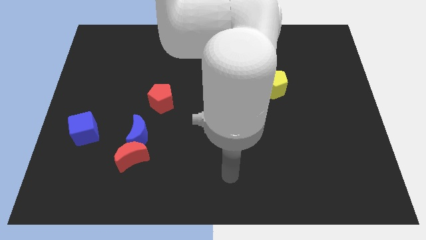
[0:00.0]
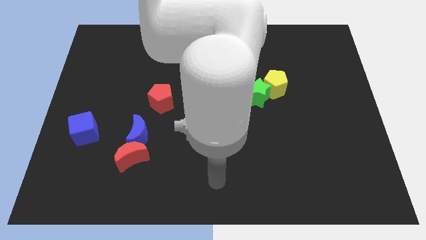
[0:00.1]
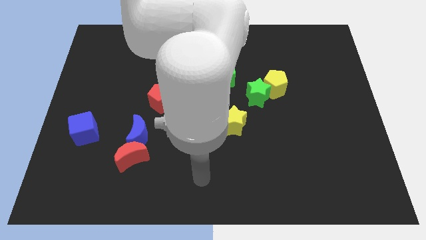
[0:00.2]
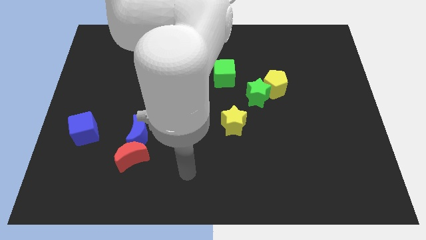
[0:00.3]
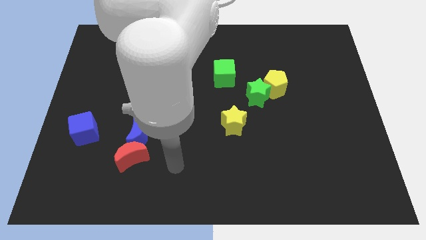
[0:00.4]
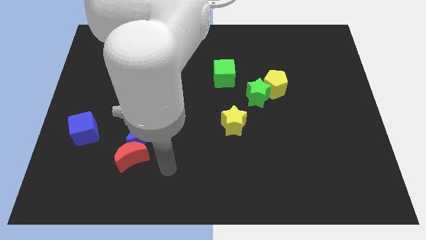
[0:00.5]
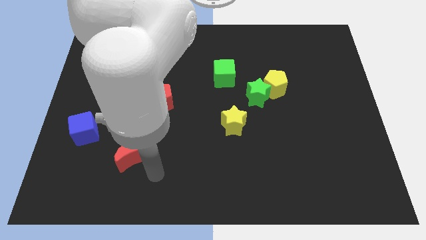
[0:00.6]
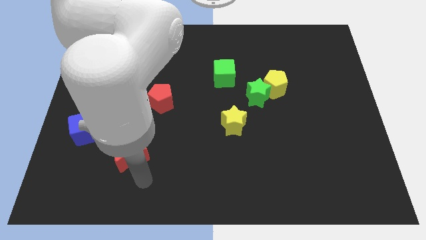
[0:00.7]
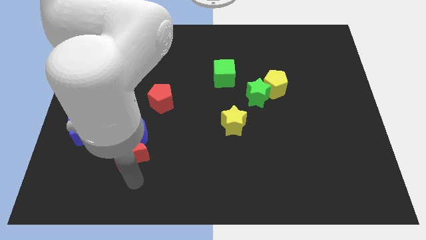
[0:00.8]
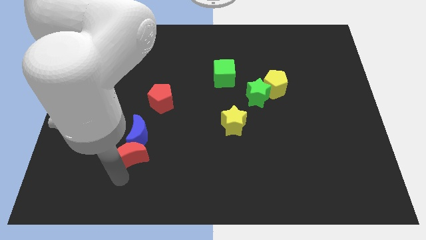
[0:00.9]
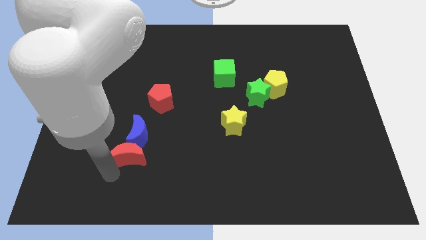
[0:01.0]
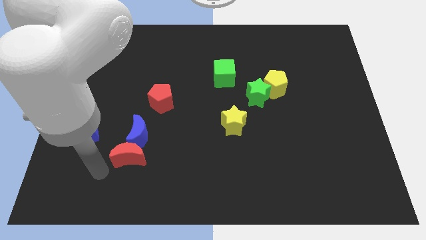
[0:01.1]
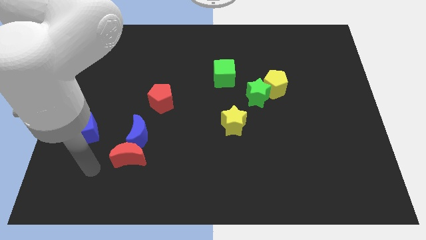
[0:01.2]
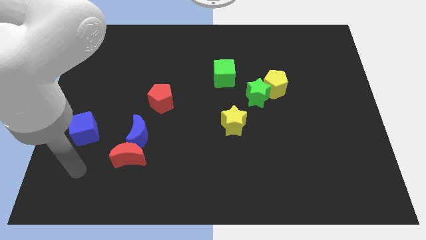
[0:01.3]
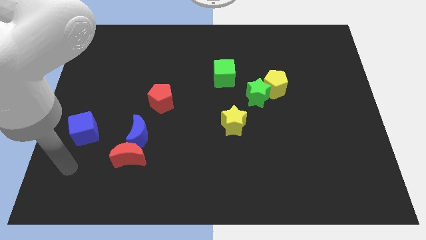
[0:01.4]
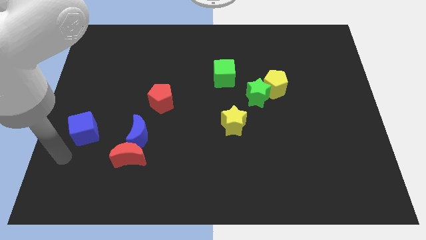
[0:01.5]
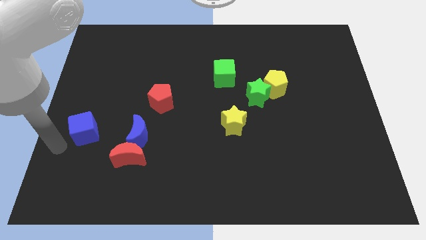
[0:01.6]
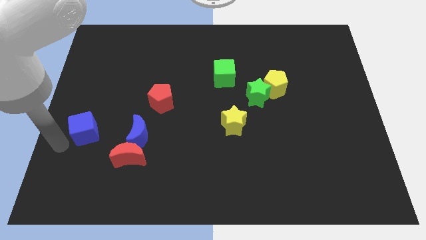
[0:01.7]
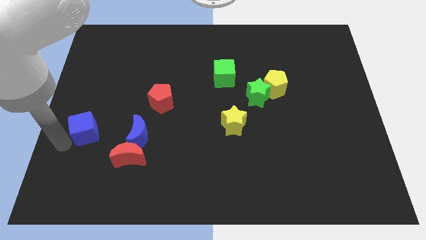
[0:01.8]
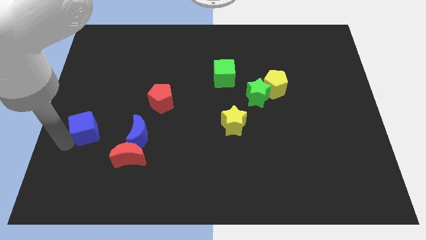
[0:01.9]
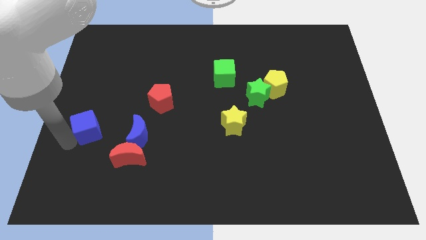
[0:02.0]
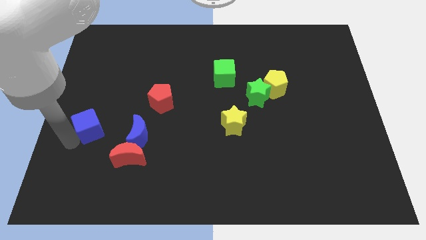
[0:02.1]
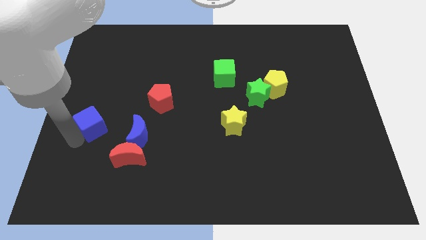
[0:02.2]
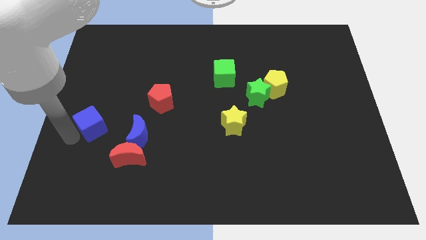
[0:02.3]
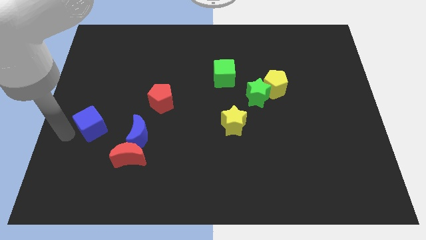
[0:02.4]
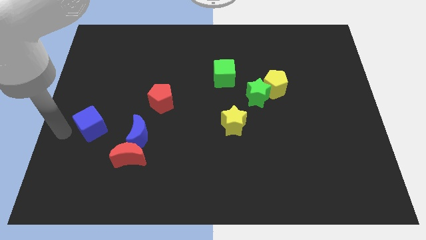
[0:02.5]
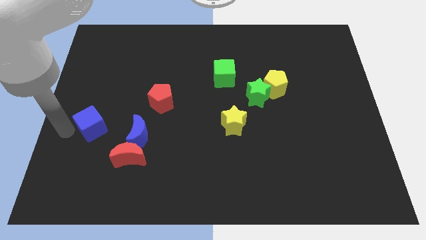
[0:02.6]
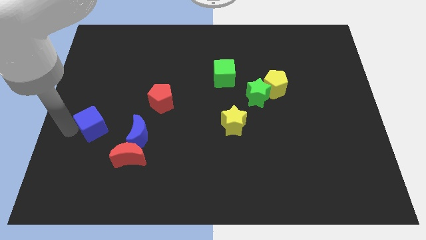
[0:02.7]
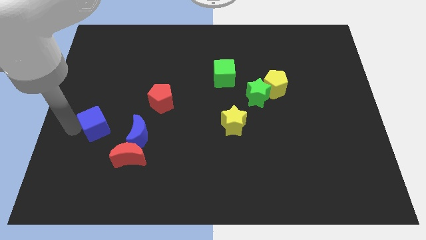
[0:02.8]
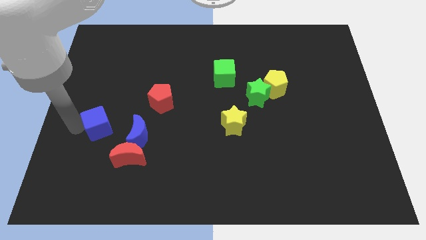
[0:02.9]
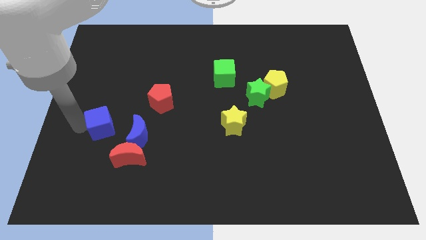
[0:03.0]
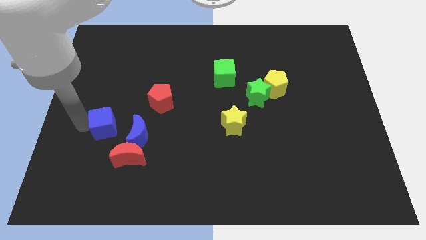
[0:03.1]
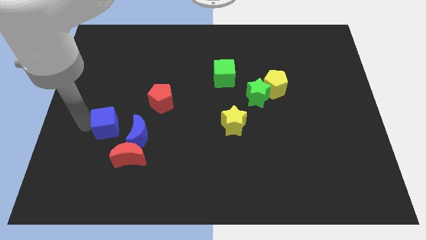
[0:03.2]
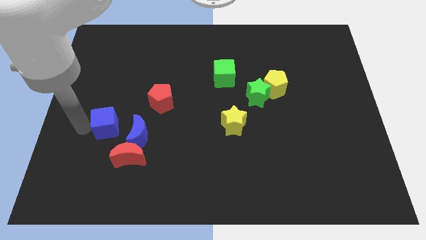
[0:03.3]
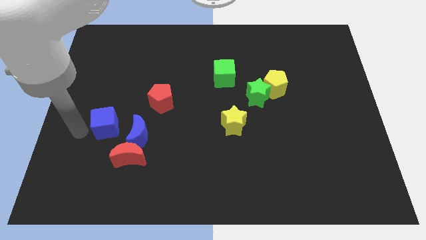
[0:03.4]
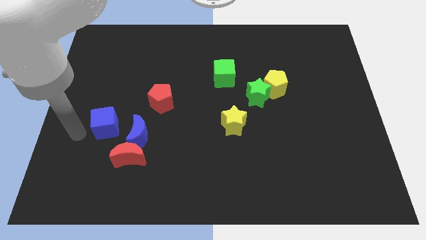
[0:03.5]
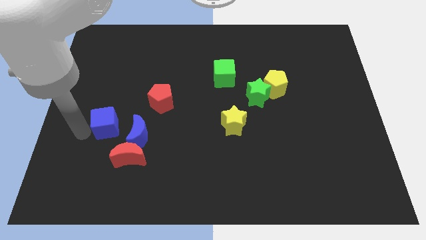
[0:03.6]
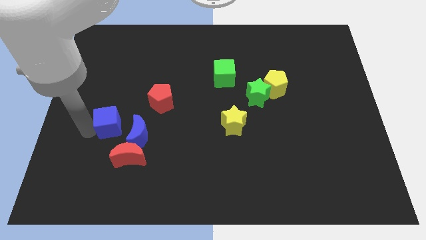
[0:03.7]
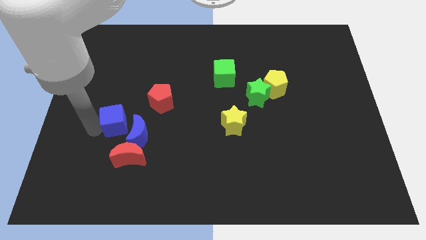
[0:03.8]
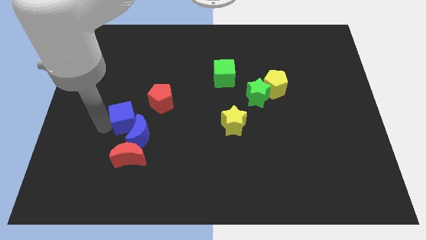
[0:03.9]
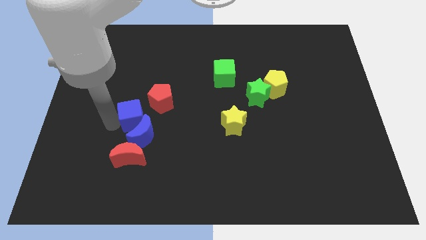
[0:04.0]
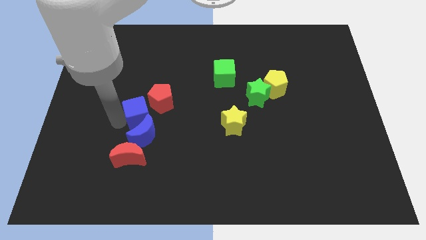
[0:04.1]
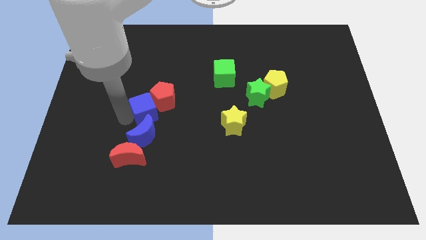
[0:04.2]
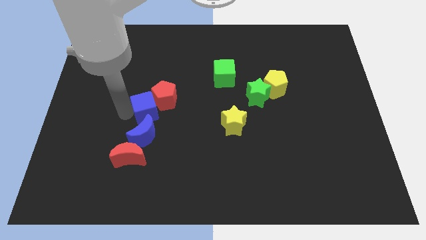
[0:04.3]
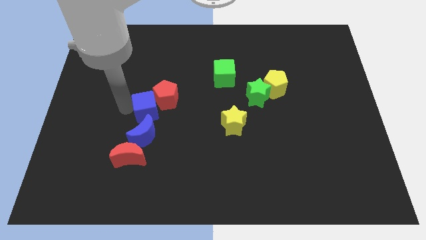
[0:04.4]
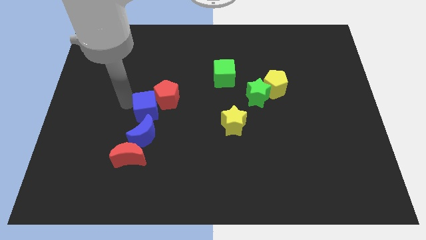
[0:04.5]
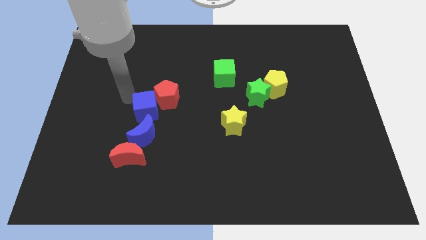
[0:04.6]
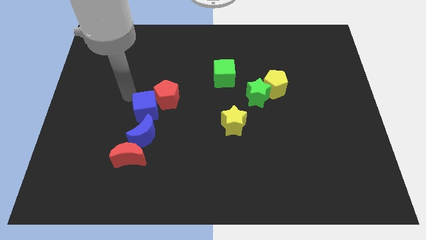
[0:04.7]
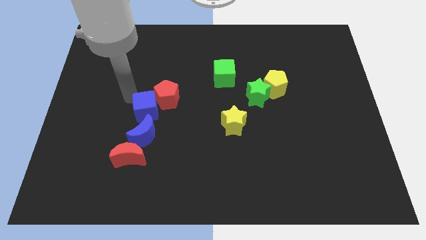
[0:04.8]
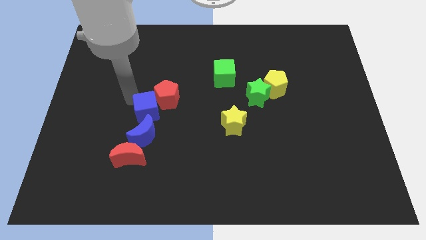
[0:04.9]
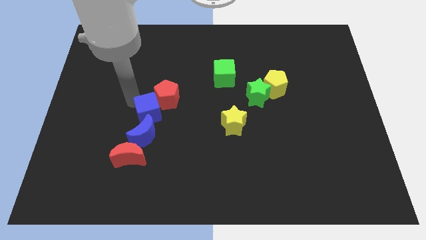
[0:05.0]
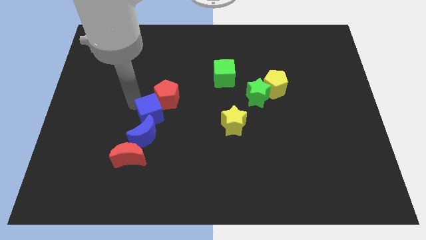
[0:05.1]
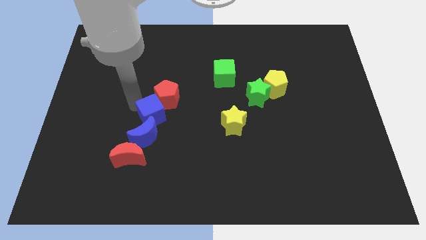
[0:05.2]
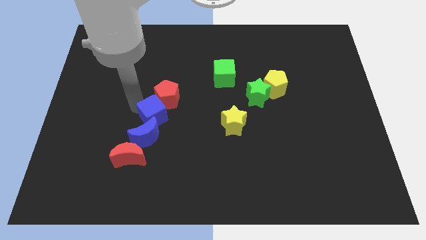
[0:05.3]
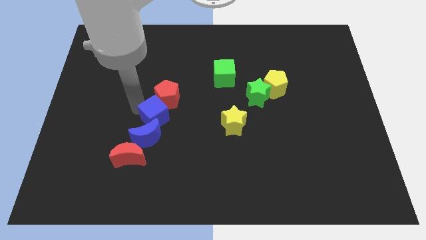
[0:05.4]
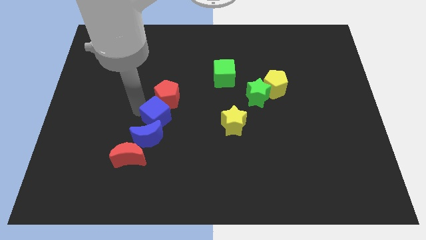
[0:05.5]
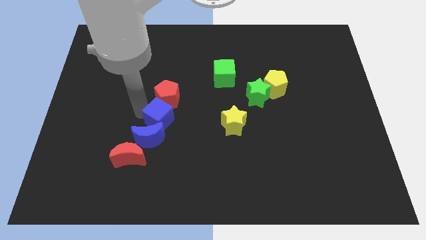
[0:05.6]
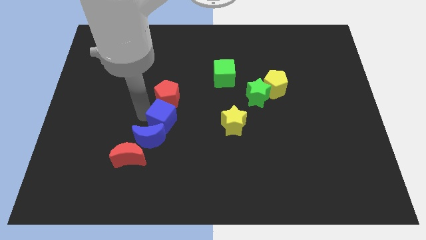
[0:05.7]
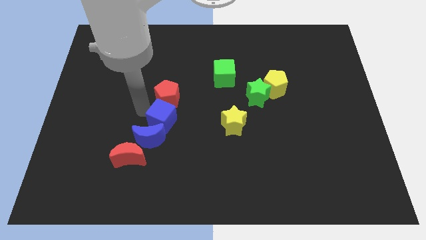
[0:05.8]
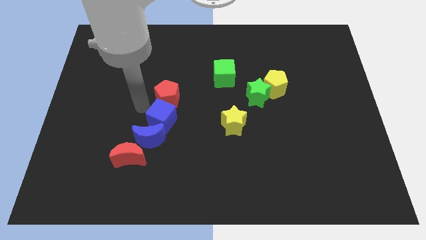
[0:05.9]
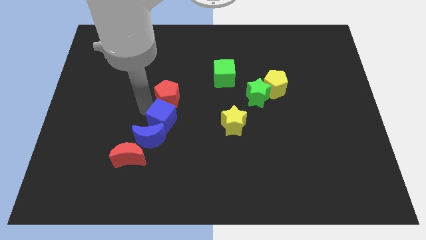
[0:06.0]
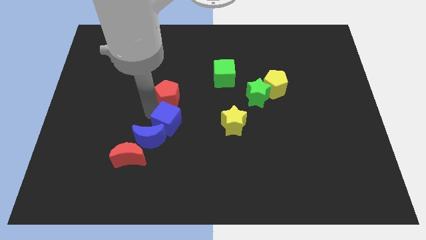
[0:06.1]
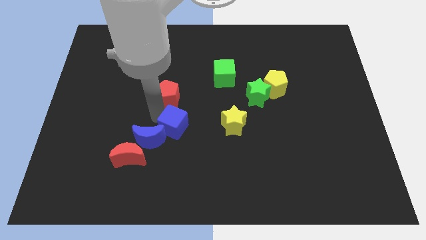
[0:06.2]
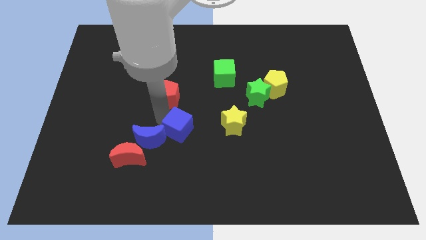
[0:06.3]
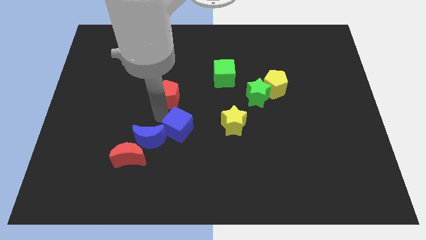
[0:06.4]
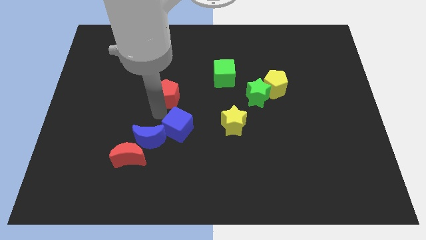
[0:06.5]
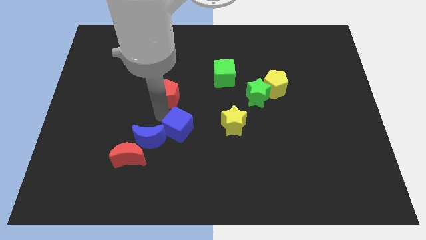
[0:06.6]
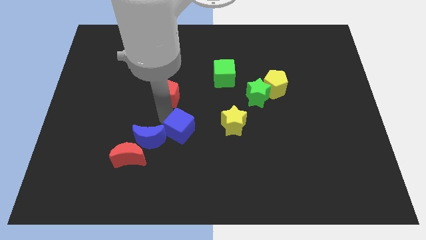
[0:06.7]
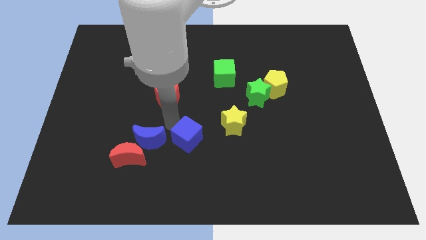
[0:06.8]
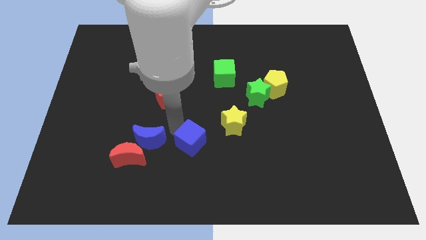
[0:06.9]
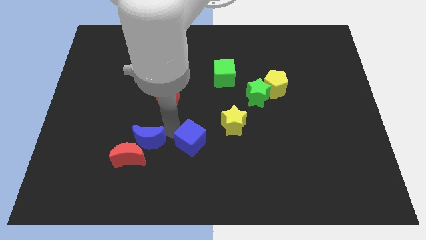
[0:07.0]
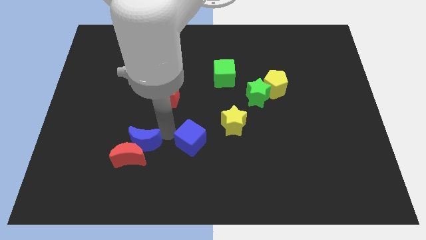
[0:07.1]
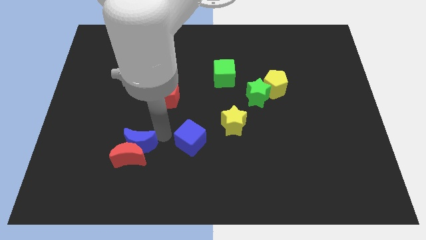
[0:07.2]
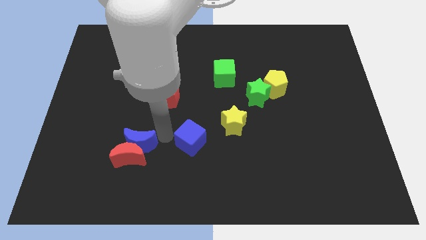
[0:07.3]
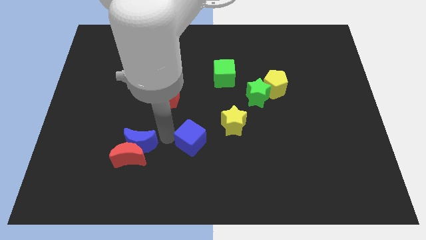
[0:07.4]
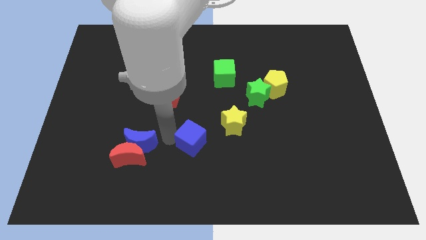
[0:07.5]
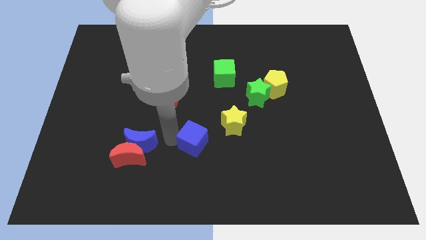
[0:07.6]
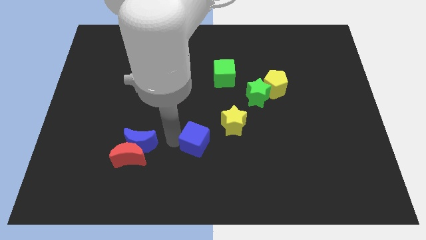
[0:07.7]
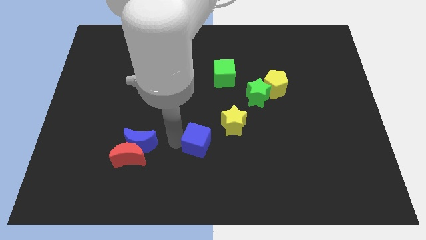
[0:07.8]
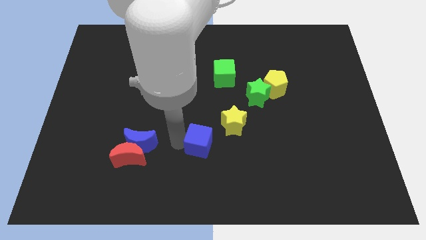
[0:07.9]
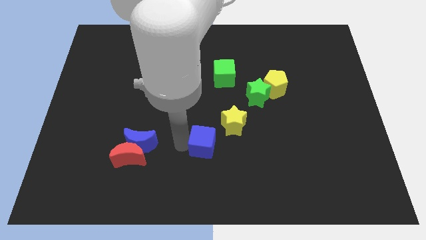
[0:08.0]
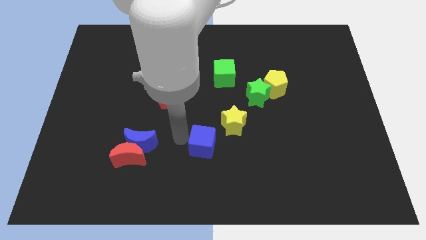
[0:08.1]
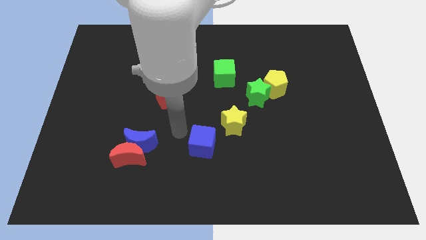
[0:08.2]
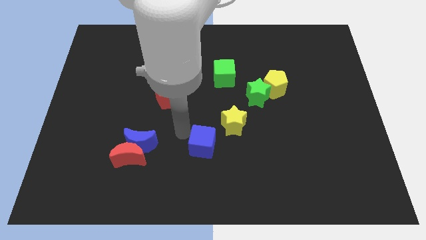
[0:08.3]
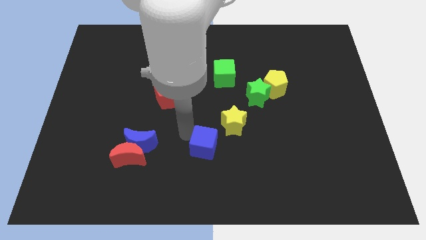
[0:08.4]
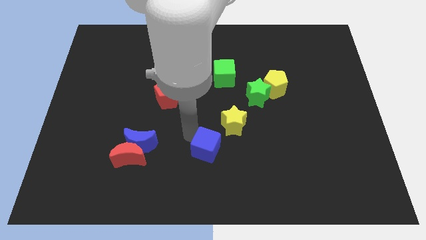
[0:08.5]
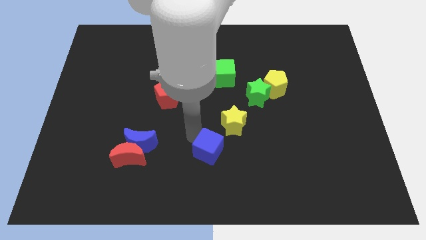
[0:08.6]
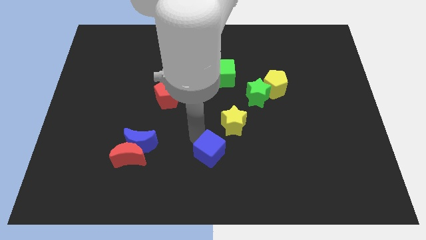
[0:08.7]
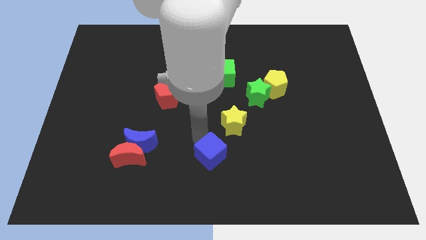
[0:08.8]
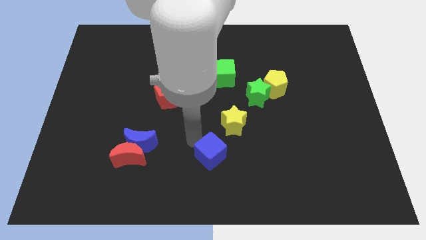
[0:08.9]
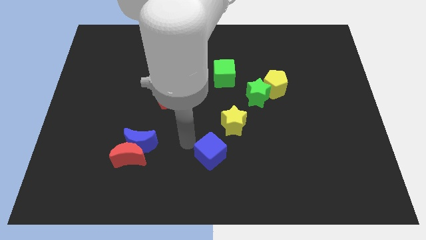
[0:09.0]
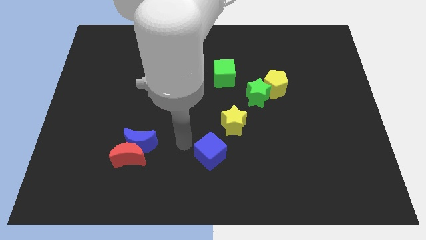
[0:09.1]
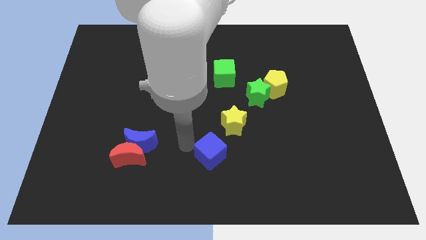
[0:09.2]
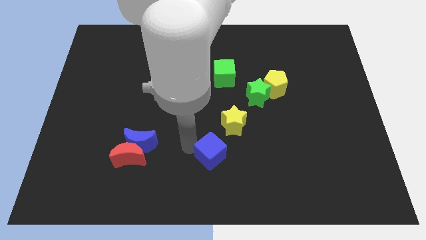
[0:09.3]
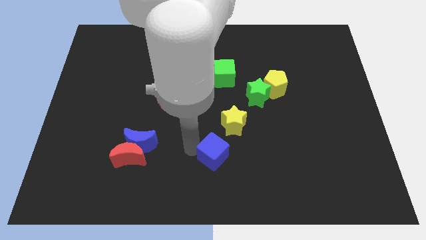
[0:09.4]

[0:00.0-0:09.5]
push the blue cube to the bottom of the yellow star
